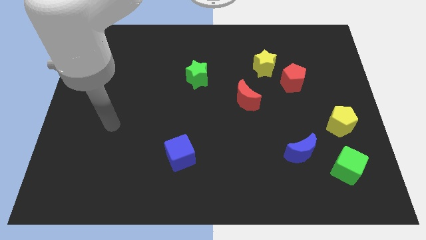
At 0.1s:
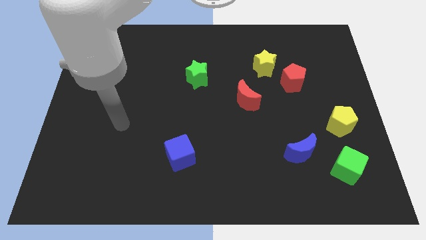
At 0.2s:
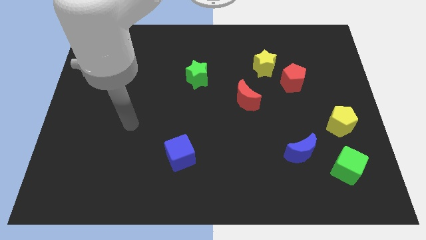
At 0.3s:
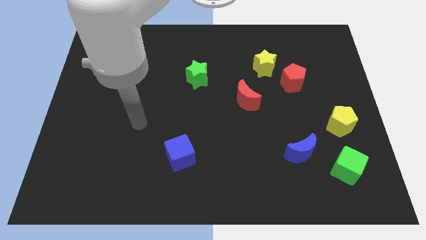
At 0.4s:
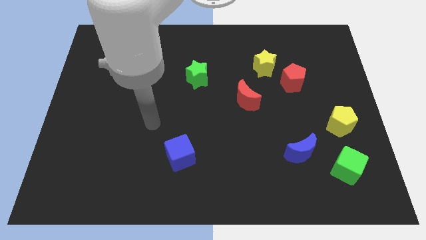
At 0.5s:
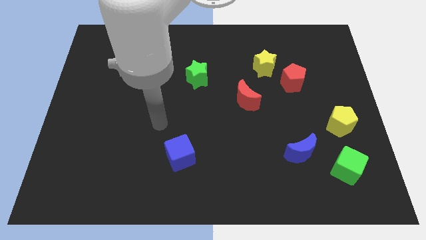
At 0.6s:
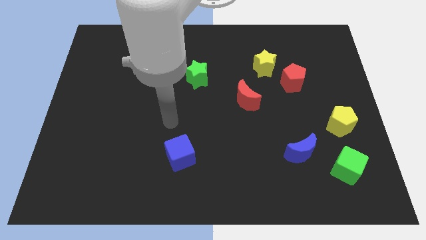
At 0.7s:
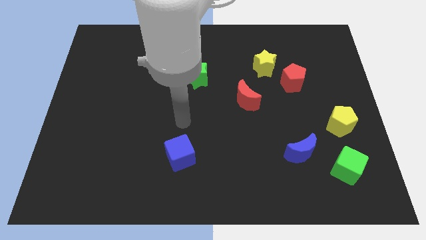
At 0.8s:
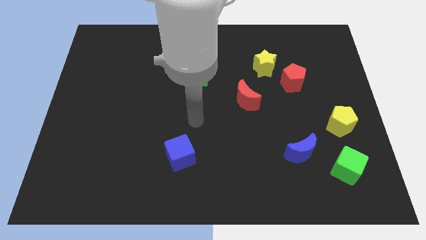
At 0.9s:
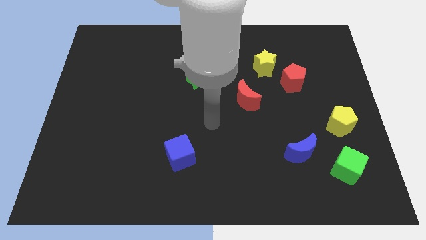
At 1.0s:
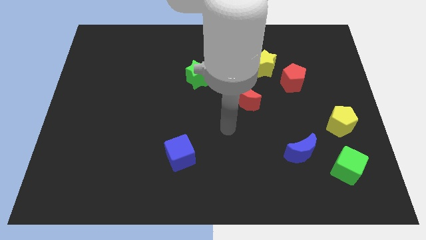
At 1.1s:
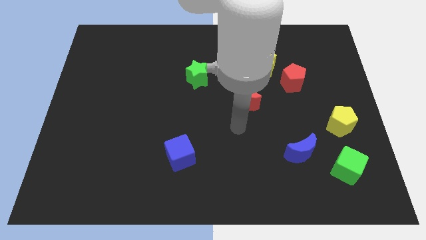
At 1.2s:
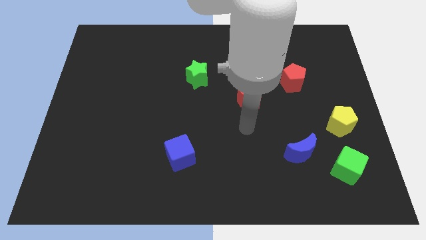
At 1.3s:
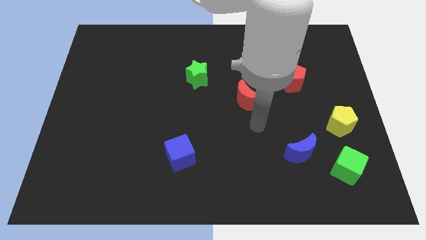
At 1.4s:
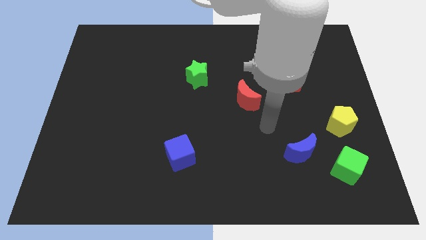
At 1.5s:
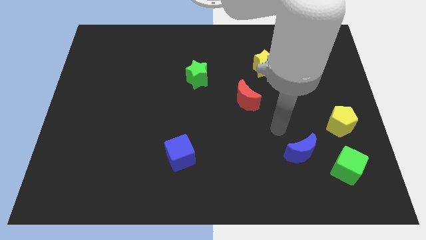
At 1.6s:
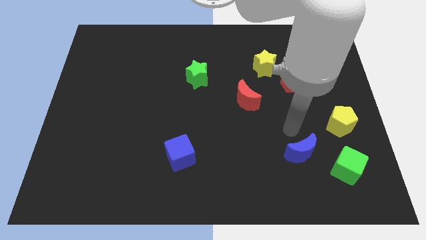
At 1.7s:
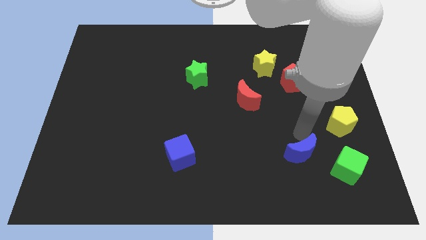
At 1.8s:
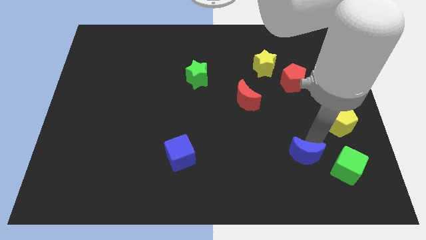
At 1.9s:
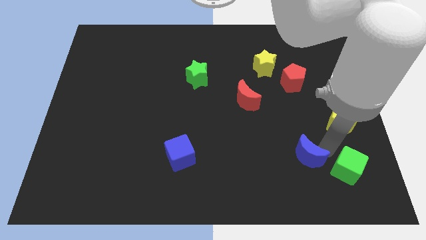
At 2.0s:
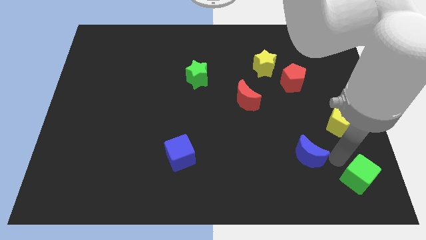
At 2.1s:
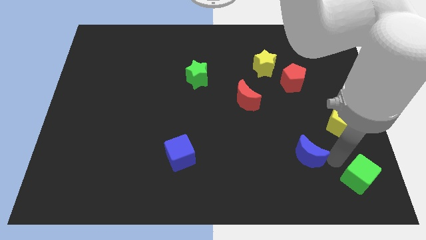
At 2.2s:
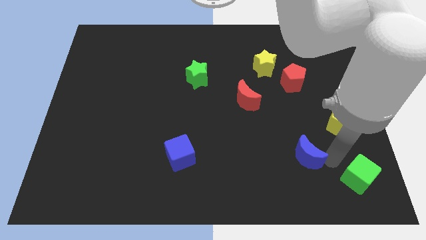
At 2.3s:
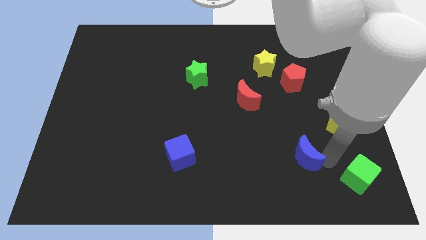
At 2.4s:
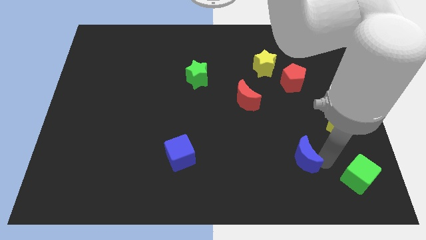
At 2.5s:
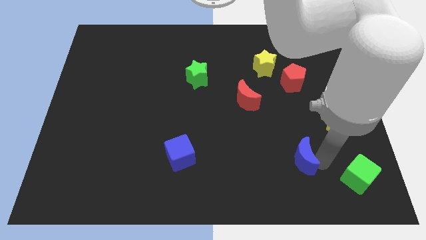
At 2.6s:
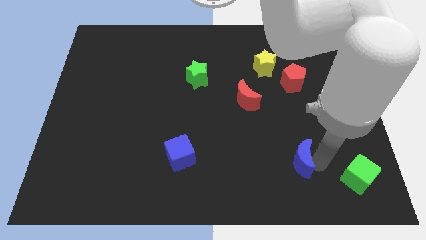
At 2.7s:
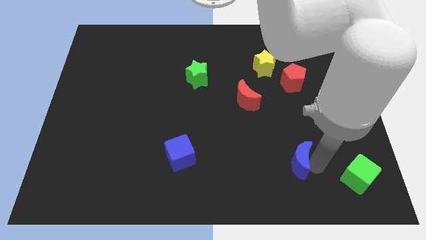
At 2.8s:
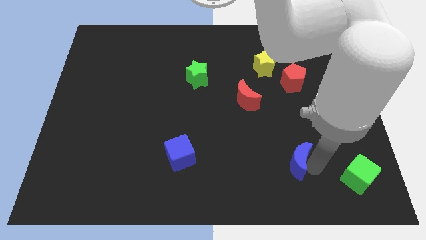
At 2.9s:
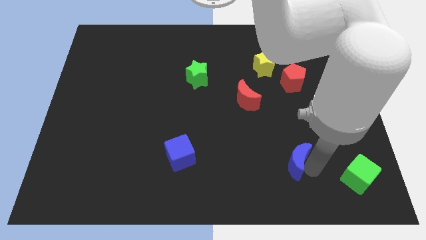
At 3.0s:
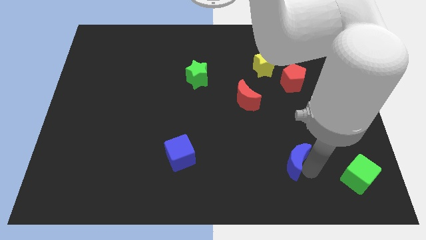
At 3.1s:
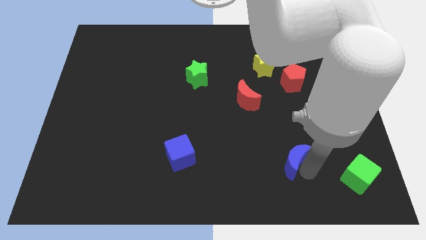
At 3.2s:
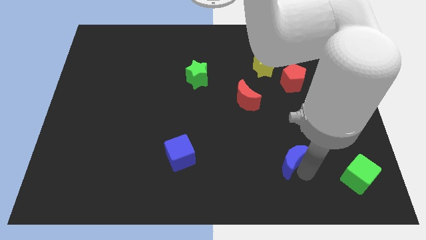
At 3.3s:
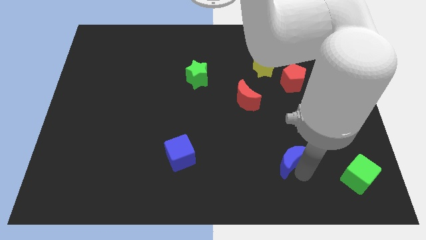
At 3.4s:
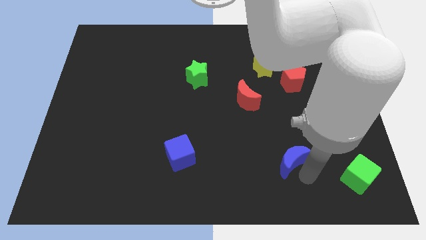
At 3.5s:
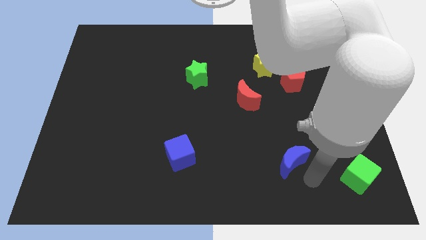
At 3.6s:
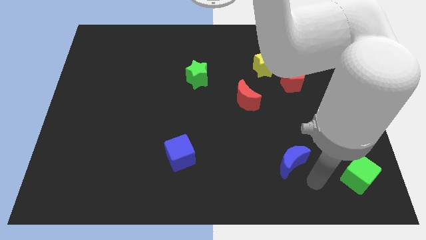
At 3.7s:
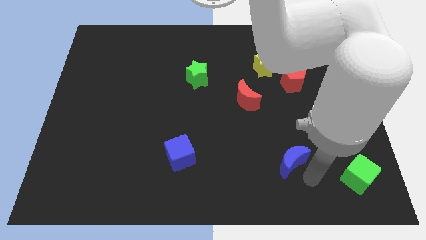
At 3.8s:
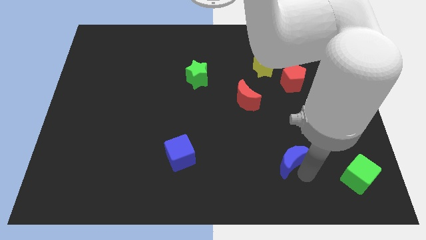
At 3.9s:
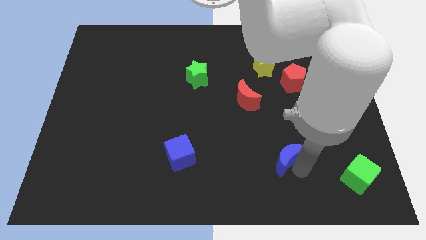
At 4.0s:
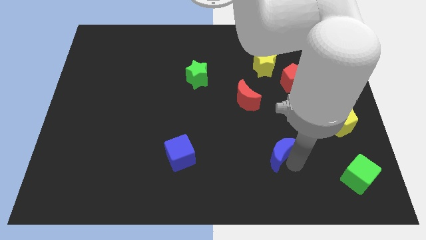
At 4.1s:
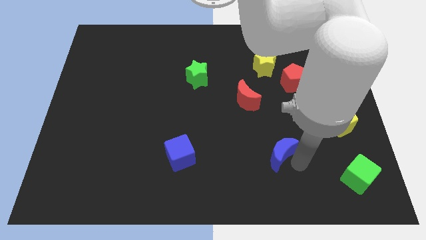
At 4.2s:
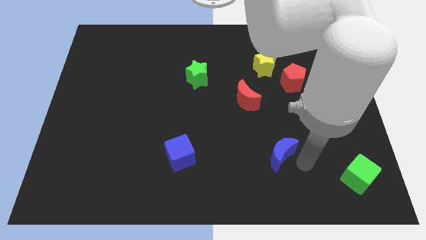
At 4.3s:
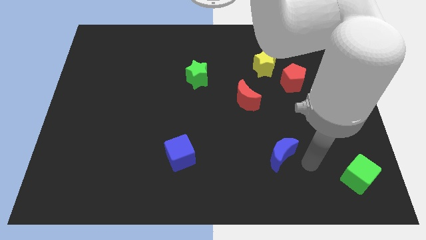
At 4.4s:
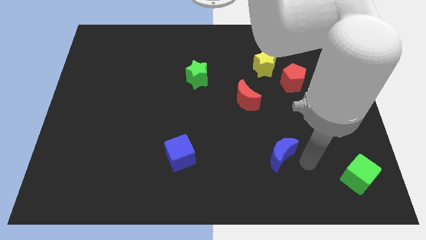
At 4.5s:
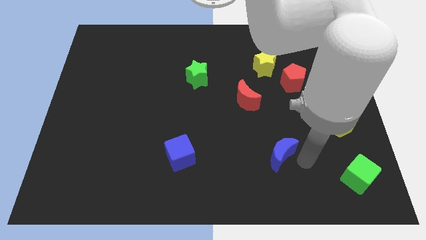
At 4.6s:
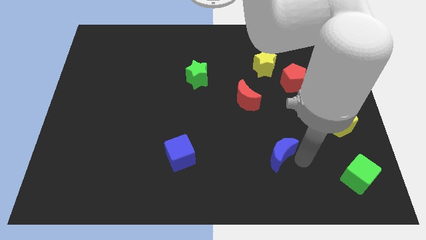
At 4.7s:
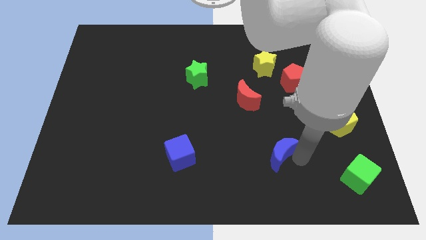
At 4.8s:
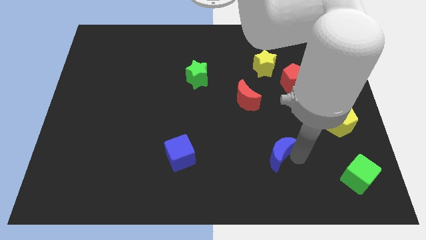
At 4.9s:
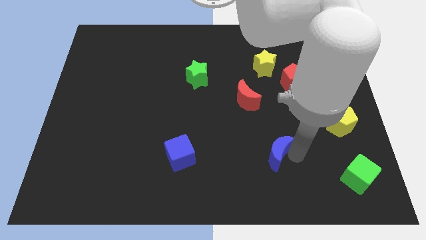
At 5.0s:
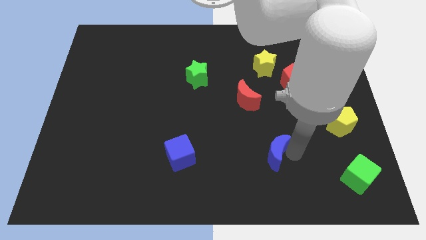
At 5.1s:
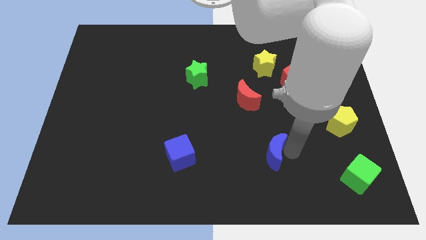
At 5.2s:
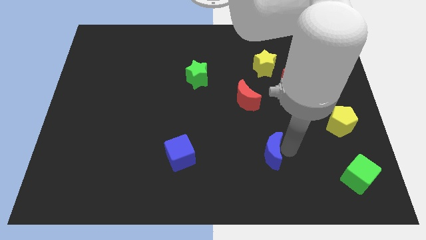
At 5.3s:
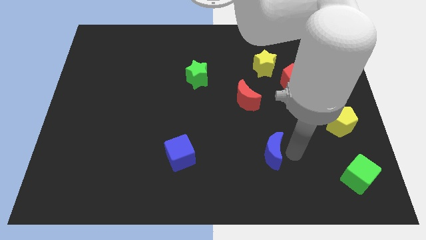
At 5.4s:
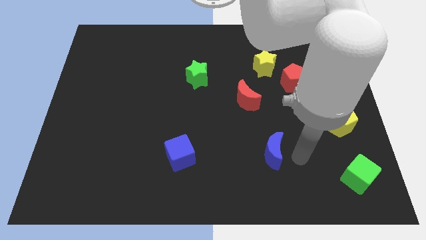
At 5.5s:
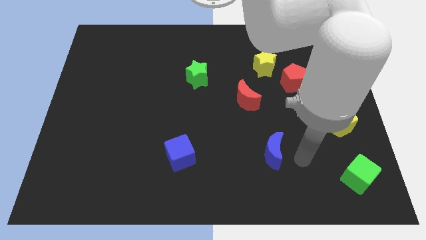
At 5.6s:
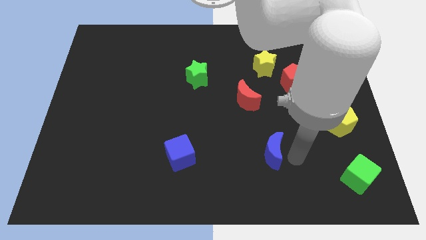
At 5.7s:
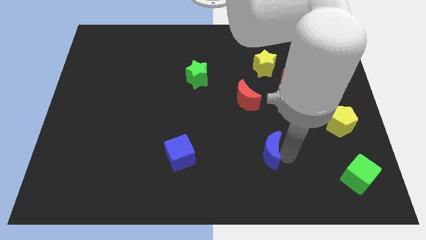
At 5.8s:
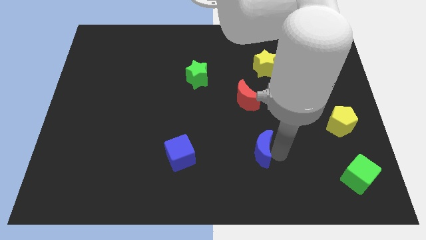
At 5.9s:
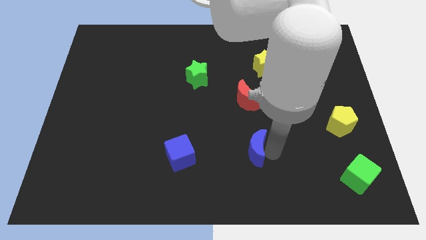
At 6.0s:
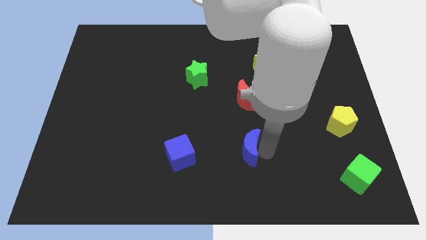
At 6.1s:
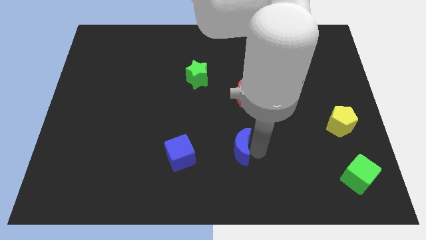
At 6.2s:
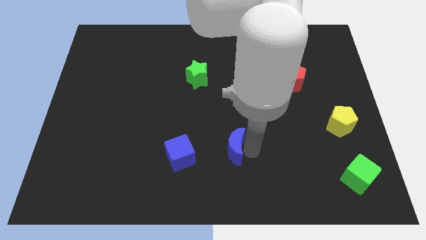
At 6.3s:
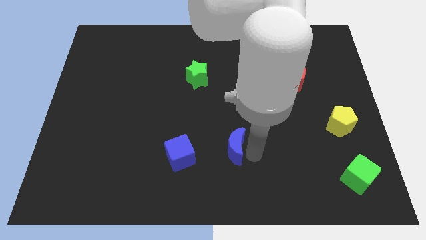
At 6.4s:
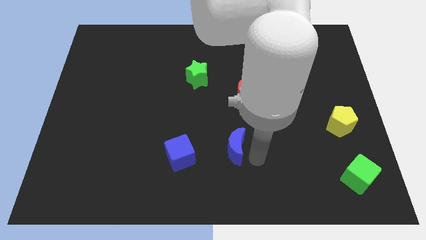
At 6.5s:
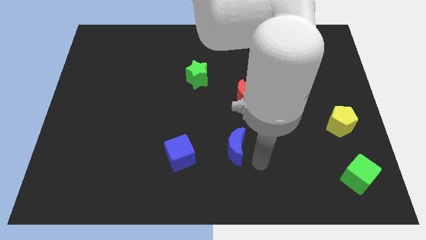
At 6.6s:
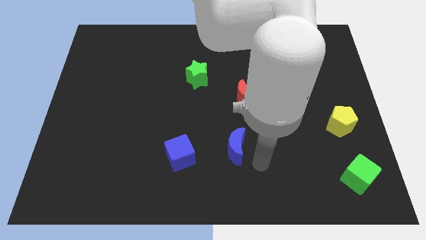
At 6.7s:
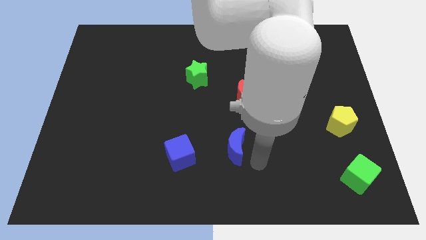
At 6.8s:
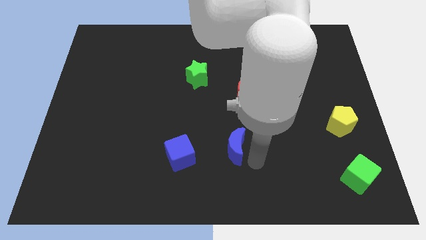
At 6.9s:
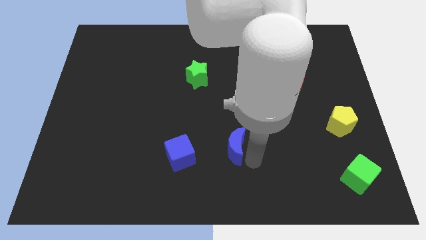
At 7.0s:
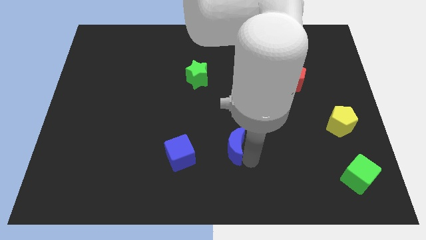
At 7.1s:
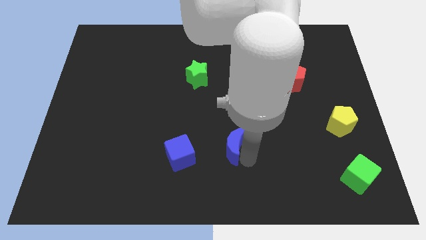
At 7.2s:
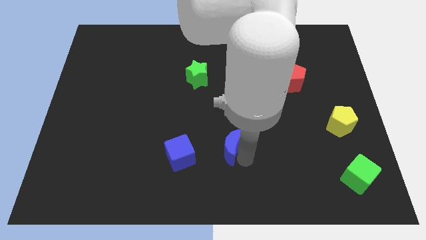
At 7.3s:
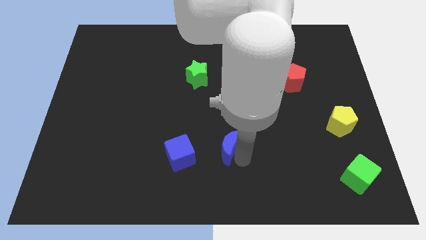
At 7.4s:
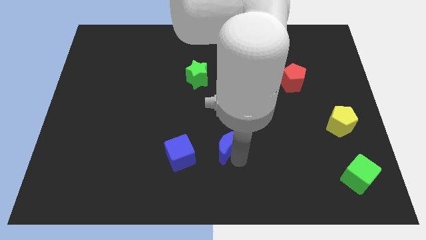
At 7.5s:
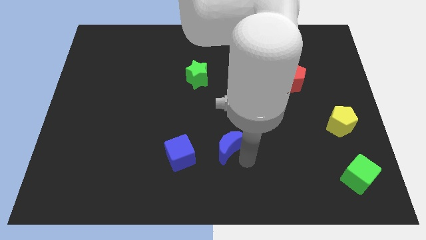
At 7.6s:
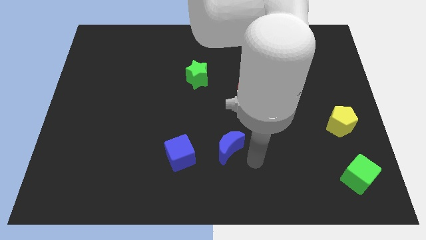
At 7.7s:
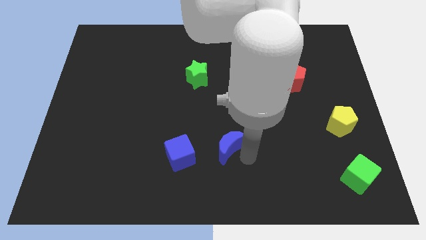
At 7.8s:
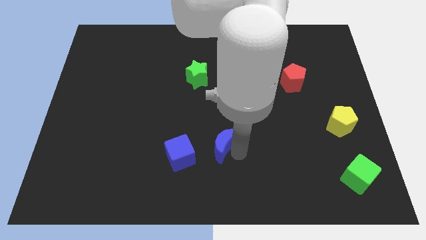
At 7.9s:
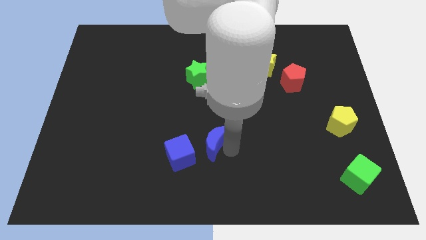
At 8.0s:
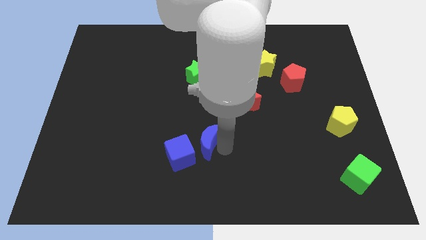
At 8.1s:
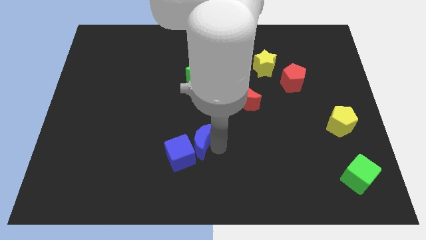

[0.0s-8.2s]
move the blue moon to the left
